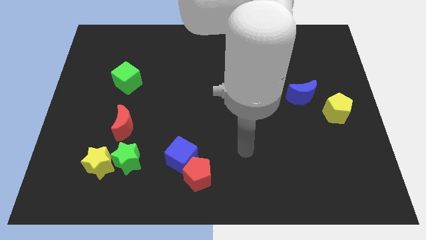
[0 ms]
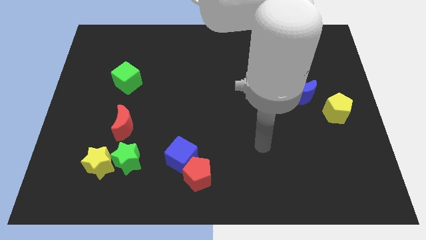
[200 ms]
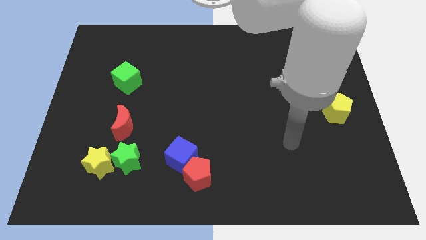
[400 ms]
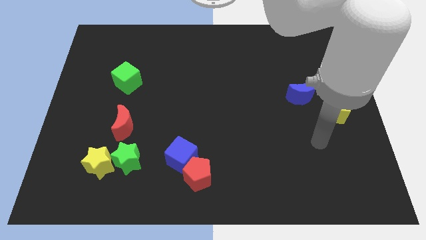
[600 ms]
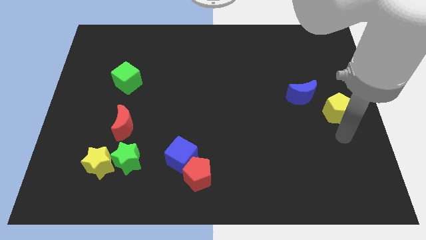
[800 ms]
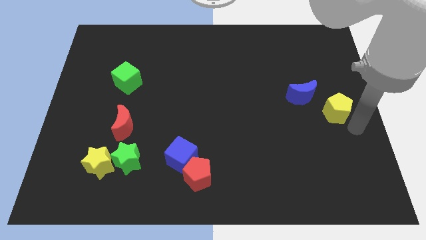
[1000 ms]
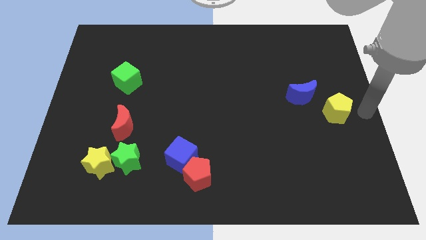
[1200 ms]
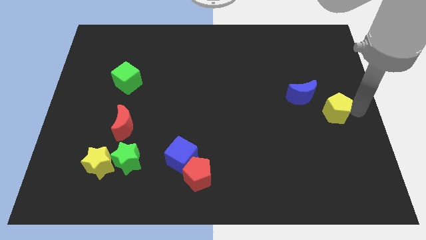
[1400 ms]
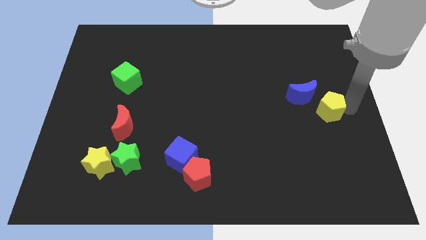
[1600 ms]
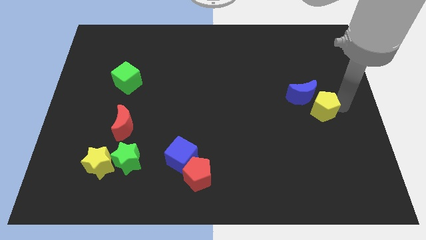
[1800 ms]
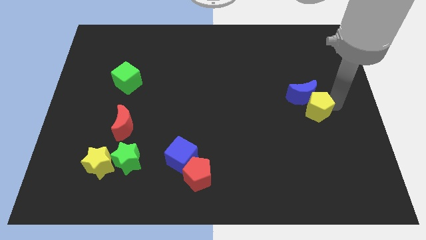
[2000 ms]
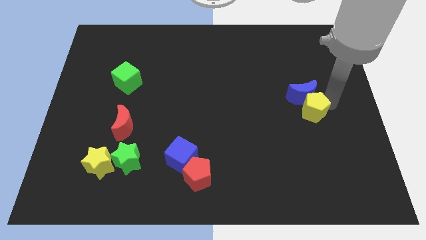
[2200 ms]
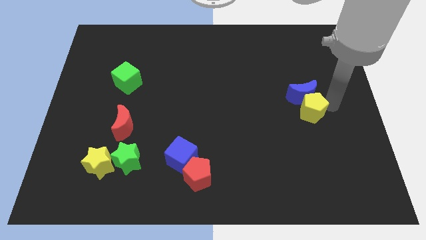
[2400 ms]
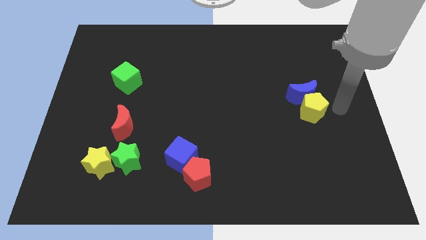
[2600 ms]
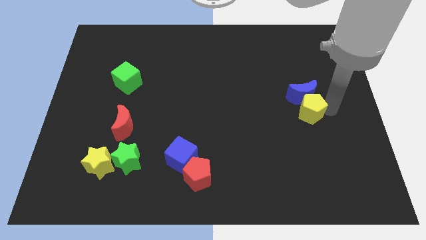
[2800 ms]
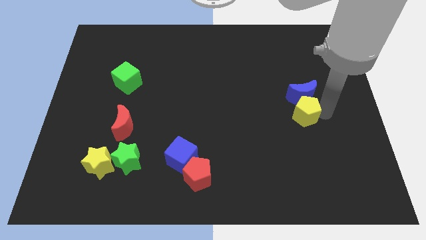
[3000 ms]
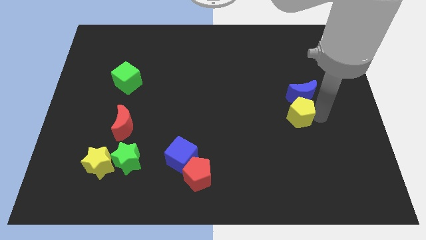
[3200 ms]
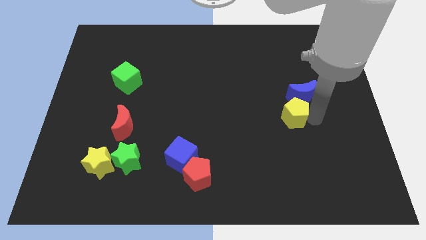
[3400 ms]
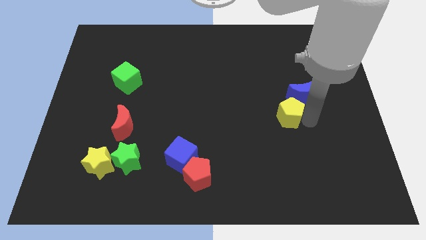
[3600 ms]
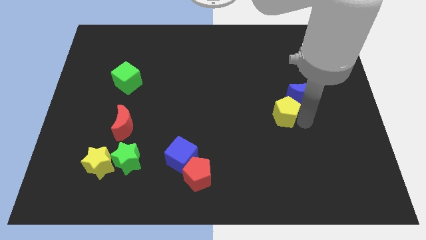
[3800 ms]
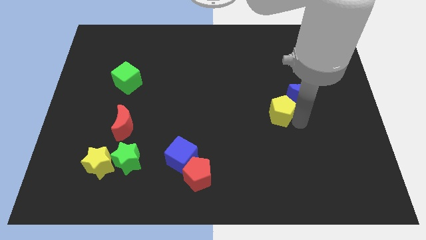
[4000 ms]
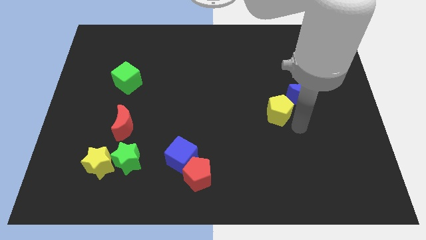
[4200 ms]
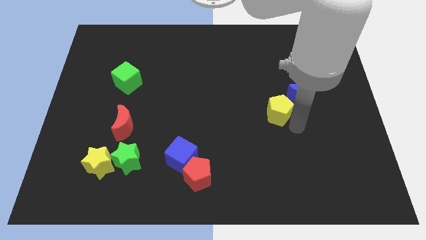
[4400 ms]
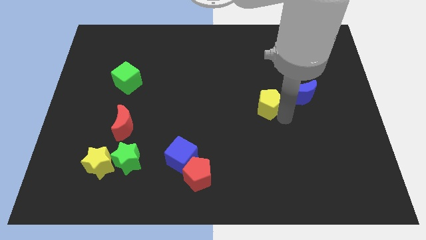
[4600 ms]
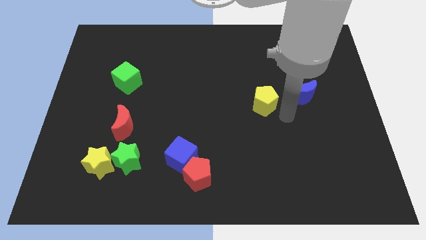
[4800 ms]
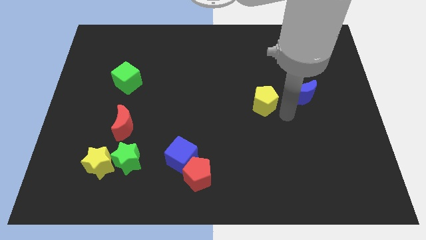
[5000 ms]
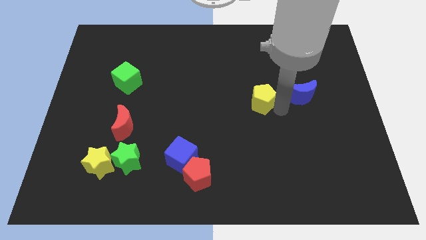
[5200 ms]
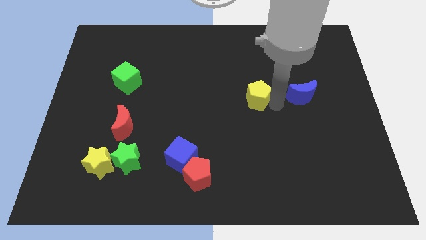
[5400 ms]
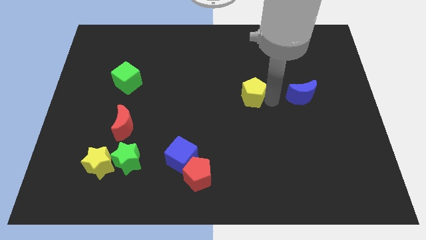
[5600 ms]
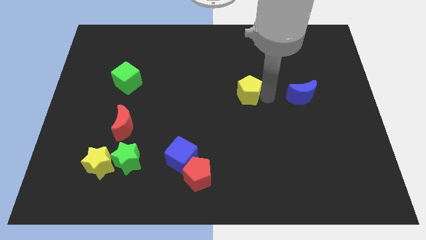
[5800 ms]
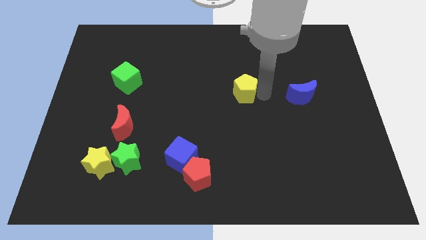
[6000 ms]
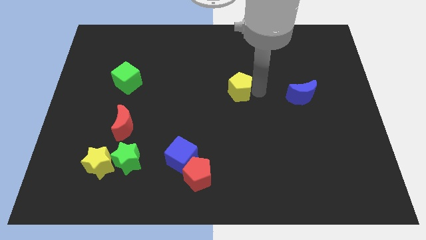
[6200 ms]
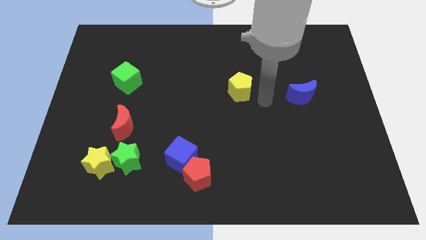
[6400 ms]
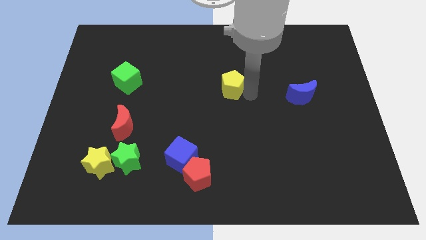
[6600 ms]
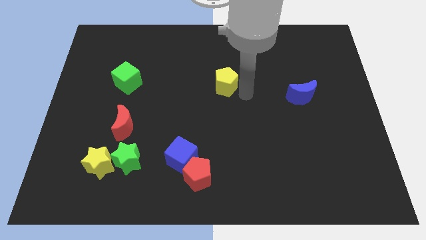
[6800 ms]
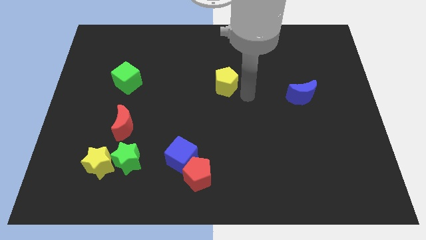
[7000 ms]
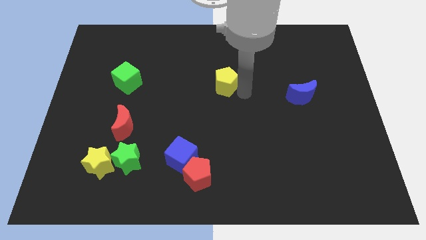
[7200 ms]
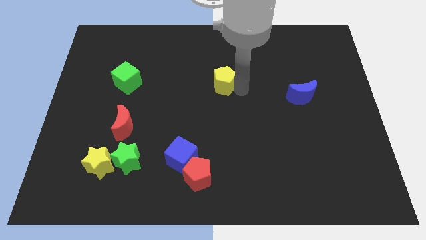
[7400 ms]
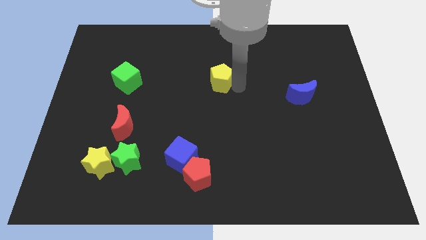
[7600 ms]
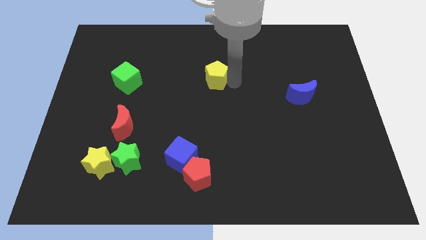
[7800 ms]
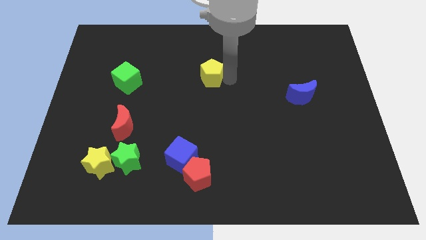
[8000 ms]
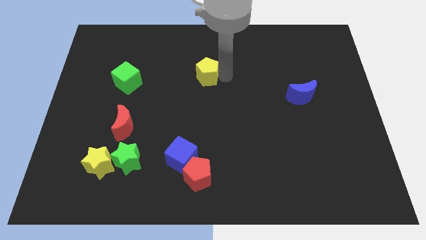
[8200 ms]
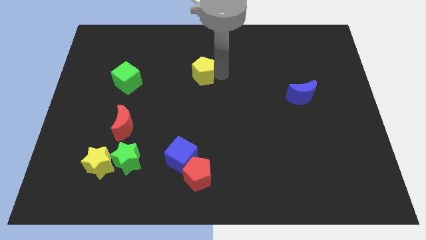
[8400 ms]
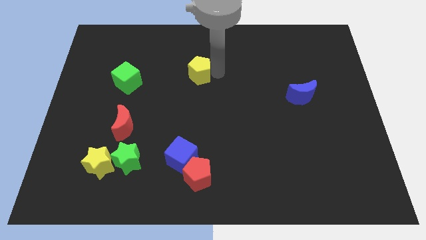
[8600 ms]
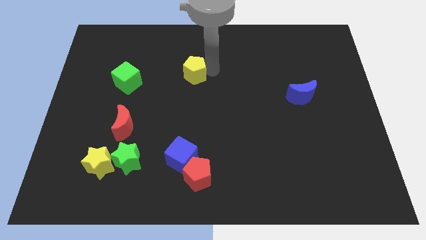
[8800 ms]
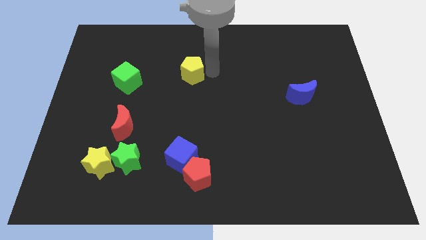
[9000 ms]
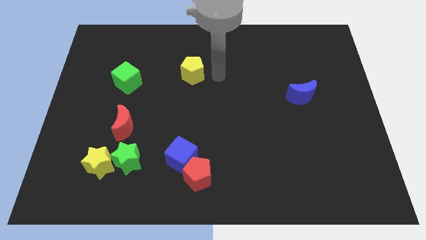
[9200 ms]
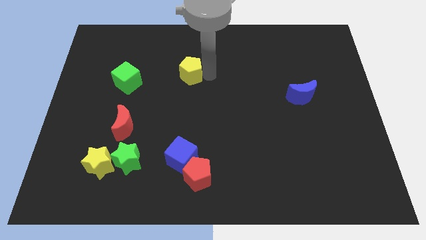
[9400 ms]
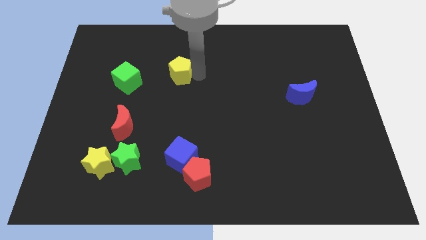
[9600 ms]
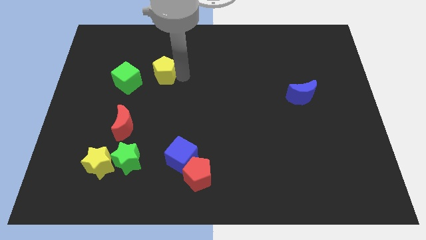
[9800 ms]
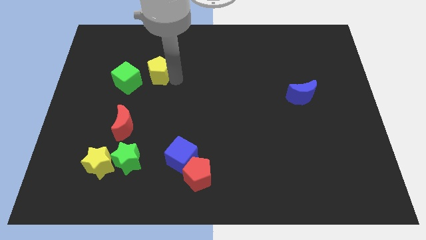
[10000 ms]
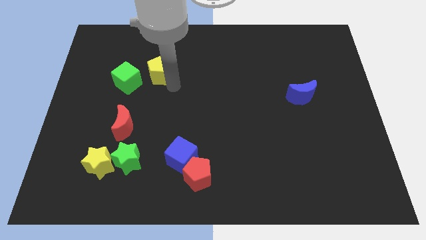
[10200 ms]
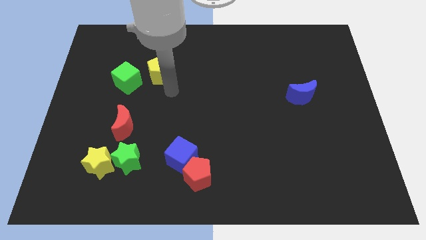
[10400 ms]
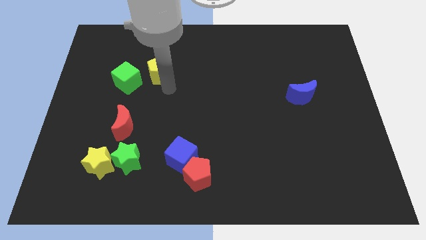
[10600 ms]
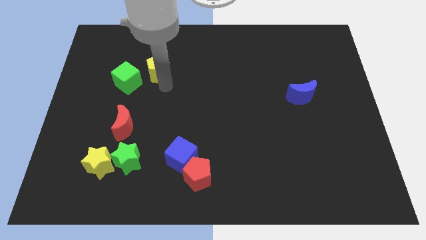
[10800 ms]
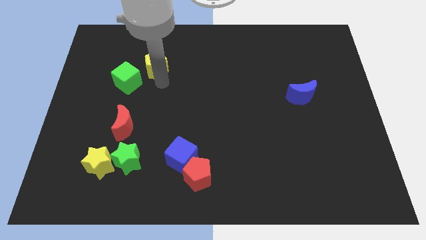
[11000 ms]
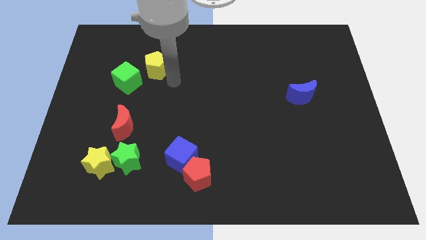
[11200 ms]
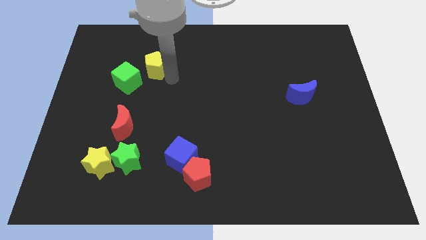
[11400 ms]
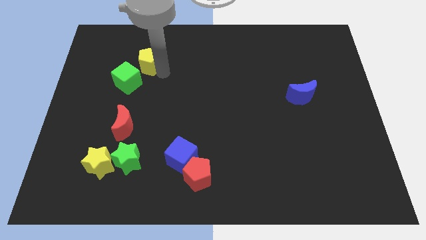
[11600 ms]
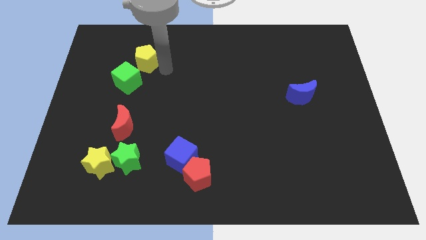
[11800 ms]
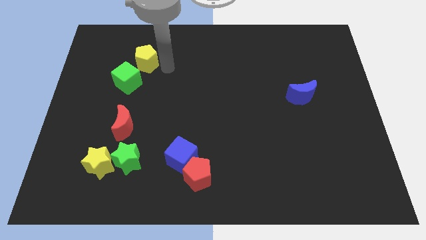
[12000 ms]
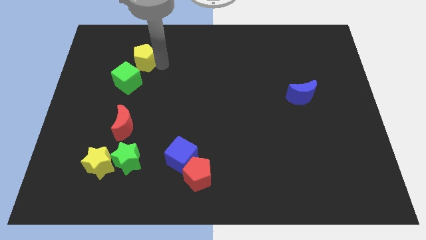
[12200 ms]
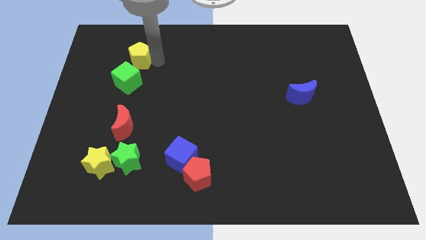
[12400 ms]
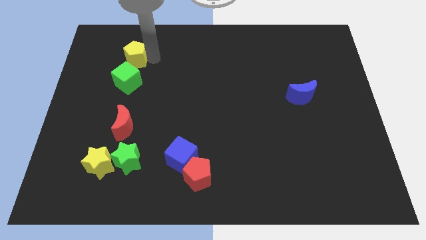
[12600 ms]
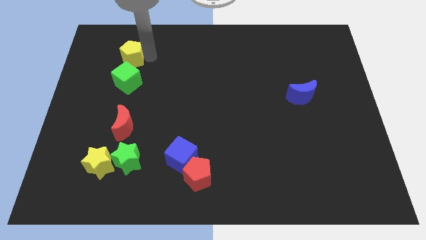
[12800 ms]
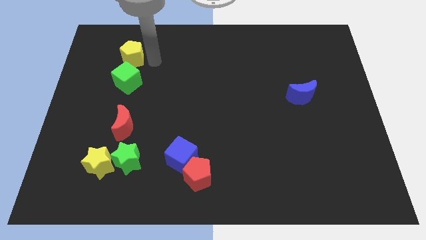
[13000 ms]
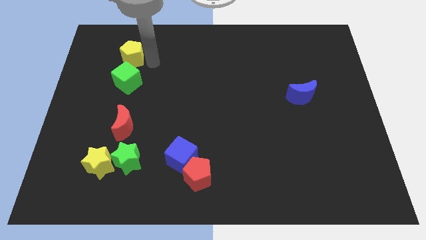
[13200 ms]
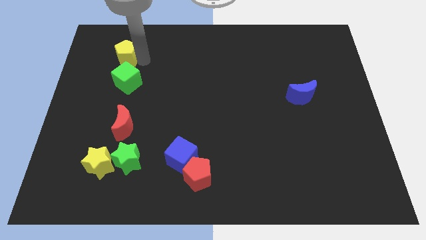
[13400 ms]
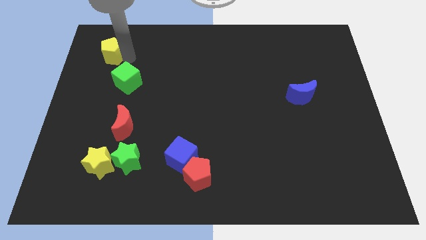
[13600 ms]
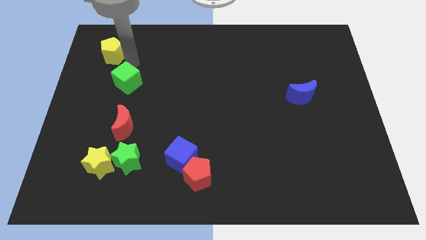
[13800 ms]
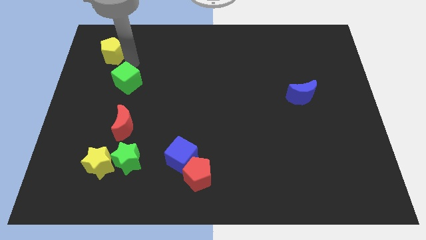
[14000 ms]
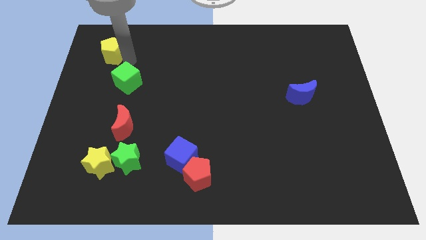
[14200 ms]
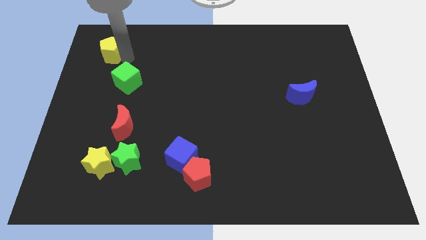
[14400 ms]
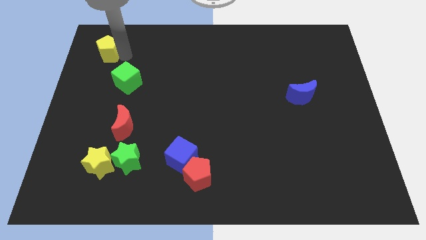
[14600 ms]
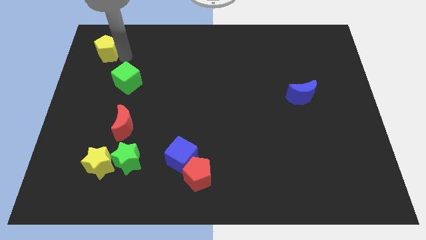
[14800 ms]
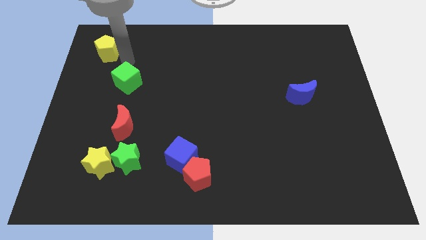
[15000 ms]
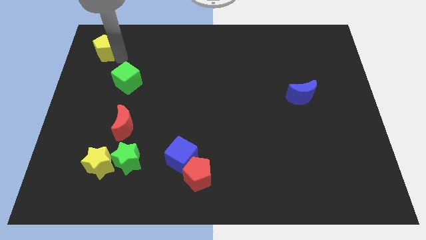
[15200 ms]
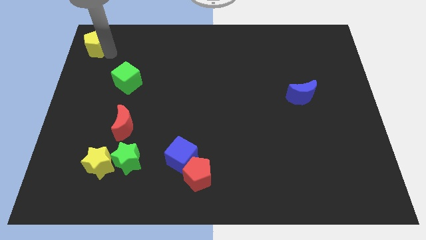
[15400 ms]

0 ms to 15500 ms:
slide the yellow pentagon to the top left of the board
